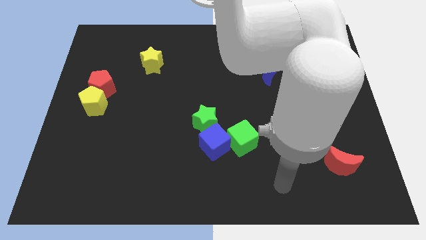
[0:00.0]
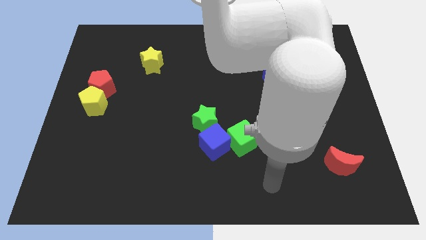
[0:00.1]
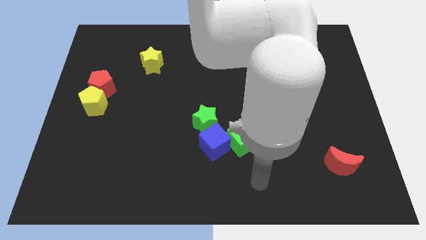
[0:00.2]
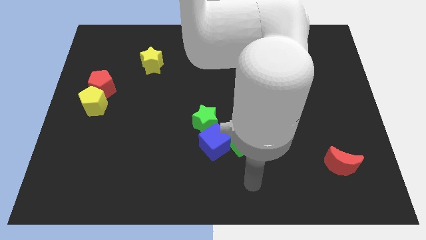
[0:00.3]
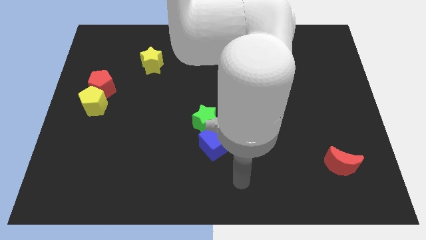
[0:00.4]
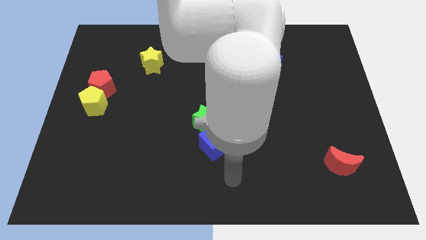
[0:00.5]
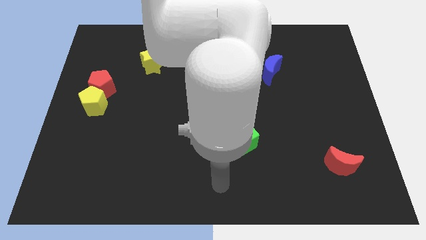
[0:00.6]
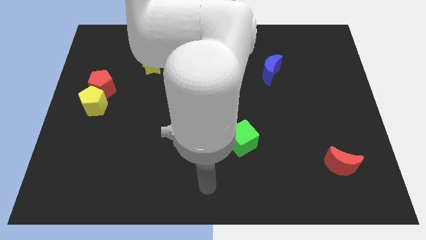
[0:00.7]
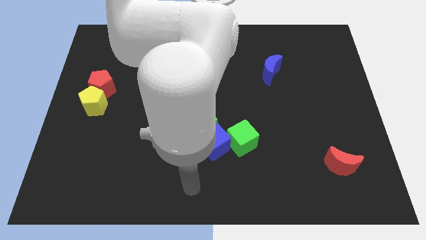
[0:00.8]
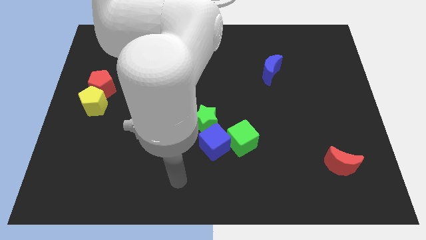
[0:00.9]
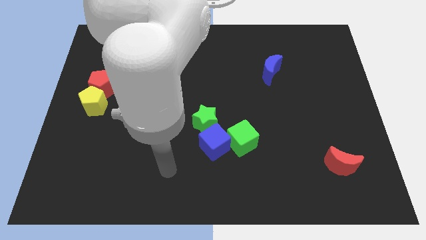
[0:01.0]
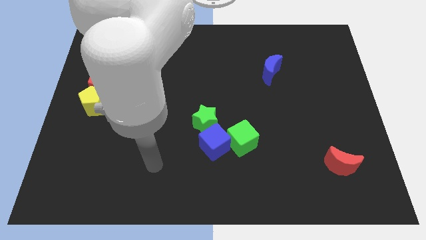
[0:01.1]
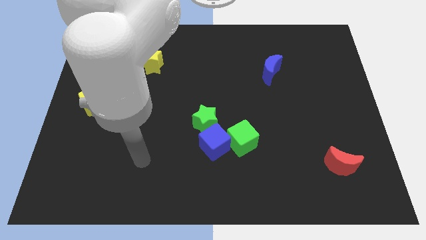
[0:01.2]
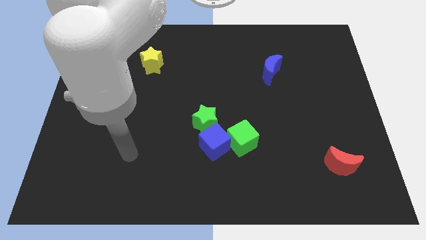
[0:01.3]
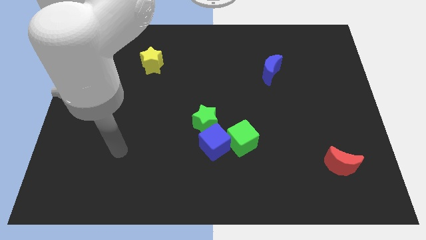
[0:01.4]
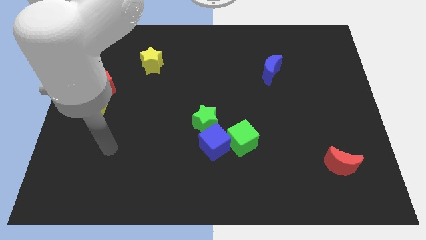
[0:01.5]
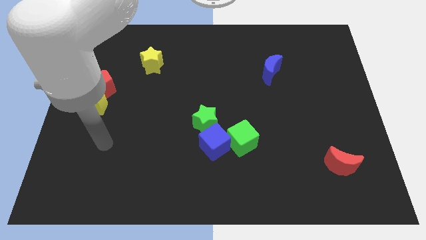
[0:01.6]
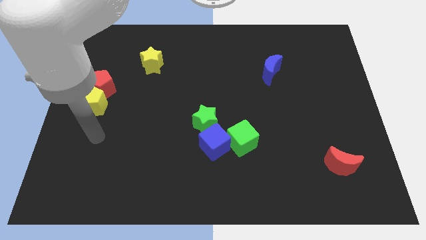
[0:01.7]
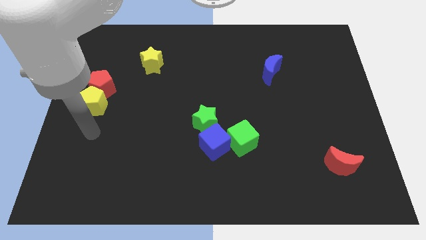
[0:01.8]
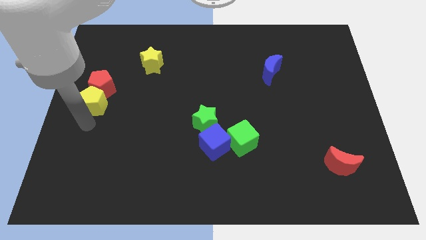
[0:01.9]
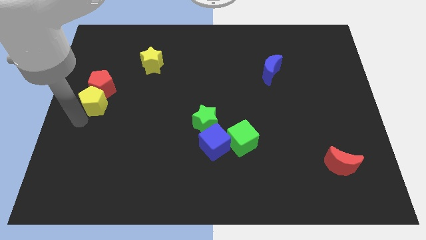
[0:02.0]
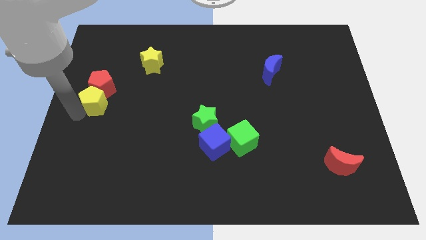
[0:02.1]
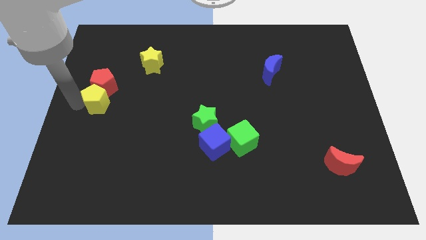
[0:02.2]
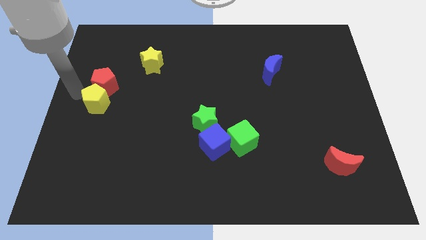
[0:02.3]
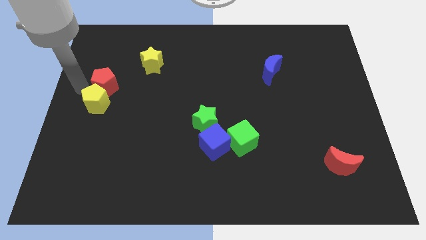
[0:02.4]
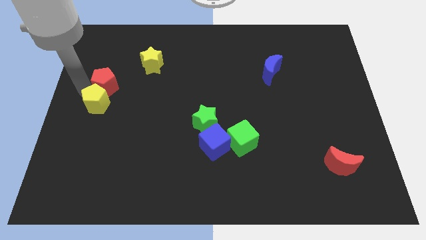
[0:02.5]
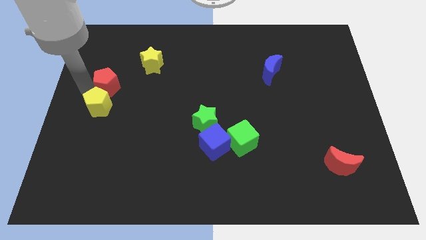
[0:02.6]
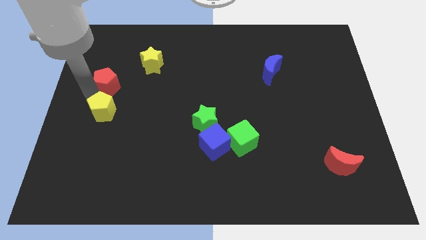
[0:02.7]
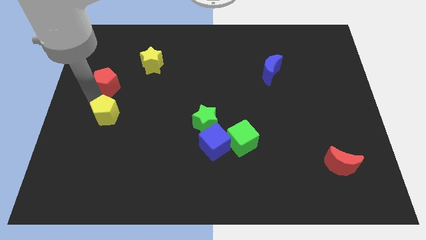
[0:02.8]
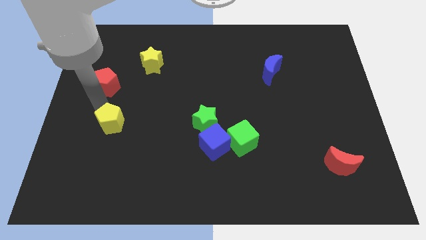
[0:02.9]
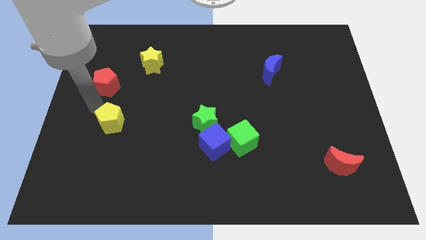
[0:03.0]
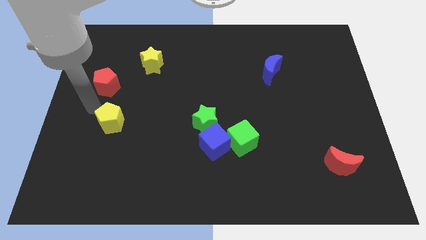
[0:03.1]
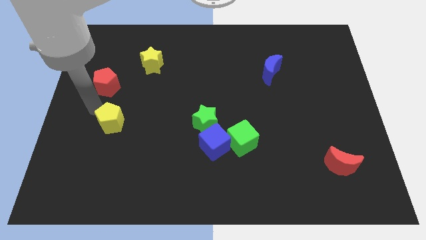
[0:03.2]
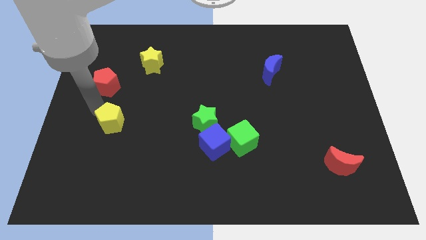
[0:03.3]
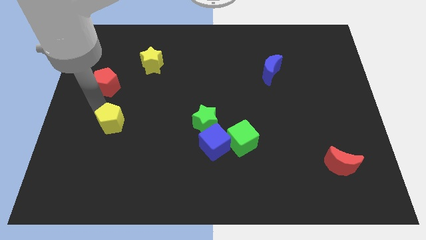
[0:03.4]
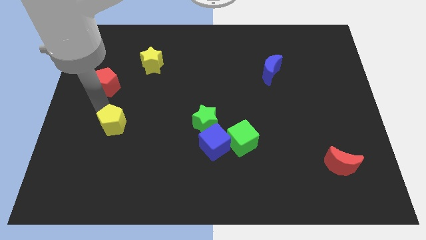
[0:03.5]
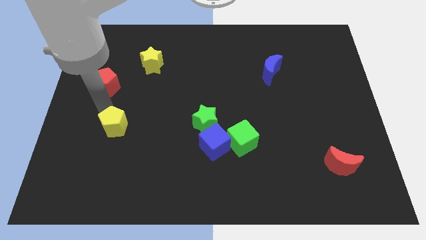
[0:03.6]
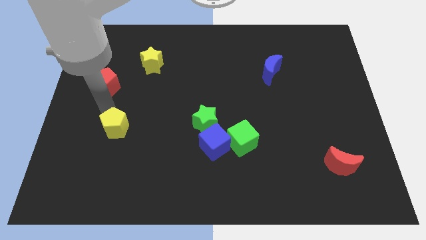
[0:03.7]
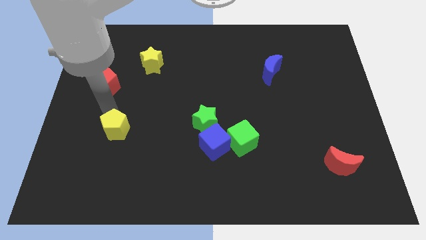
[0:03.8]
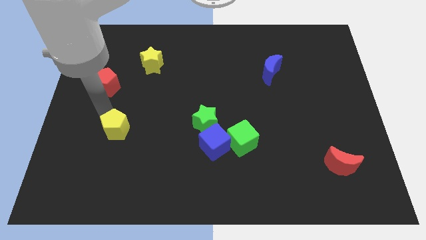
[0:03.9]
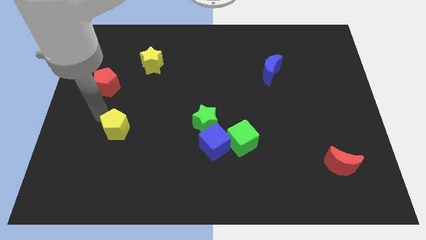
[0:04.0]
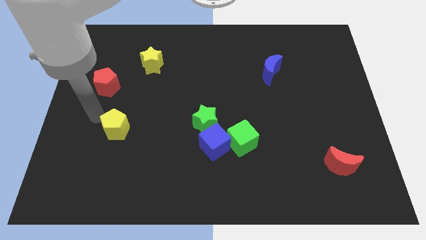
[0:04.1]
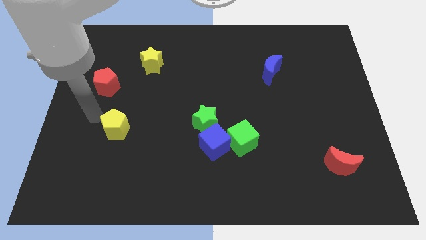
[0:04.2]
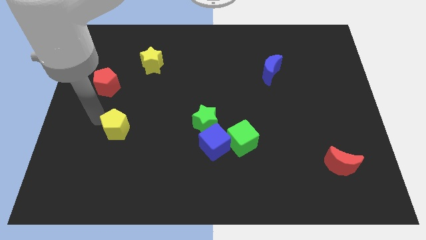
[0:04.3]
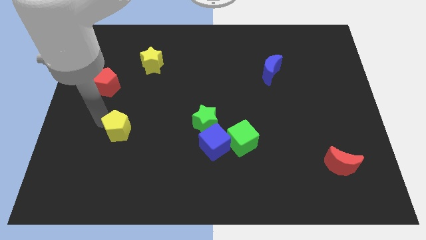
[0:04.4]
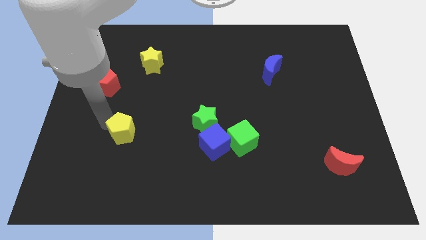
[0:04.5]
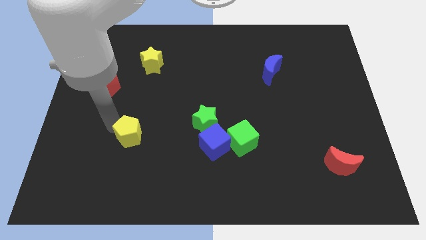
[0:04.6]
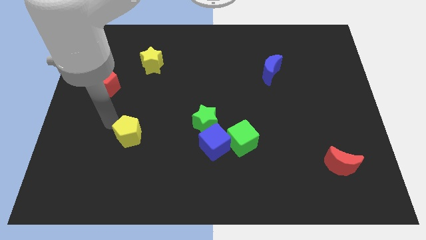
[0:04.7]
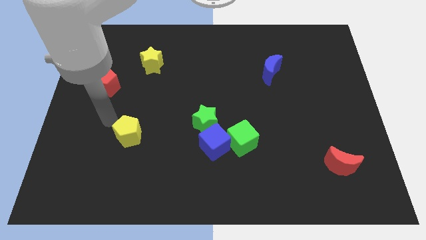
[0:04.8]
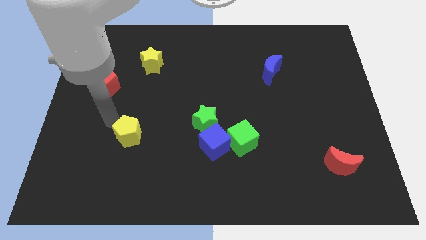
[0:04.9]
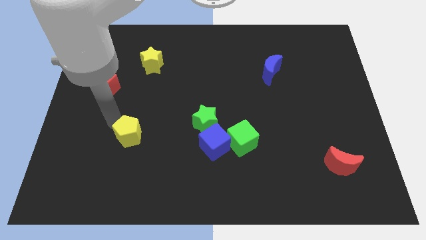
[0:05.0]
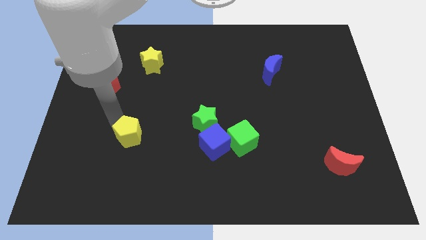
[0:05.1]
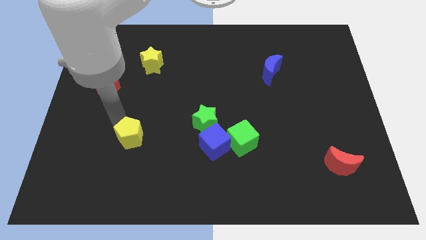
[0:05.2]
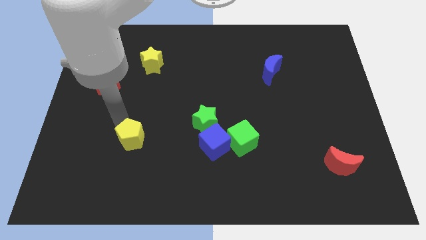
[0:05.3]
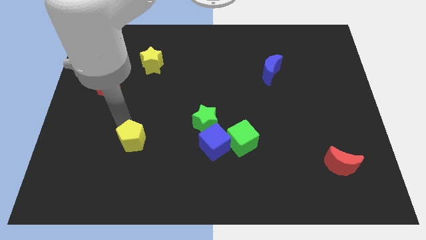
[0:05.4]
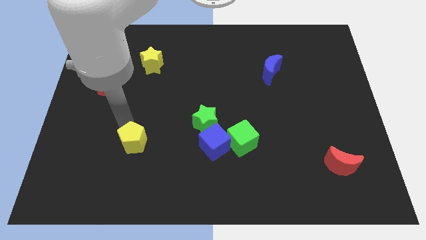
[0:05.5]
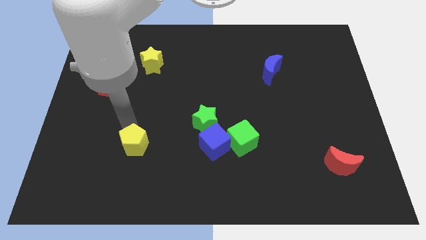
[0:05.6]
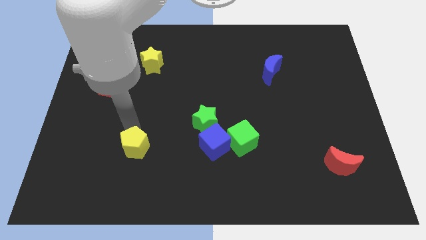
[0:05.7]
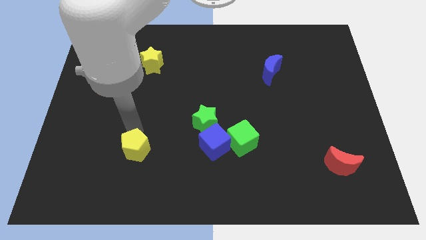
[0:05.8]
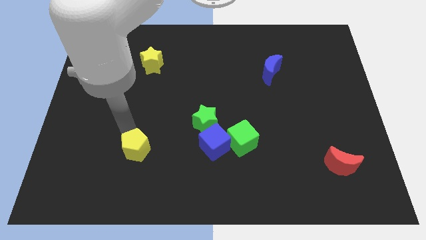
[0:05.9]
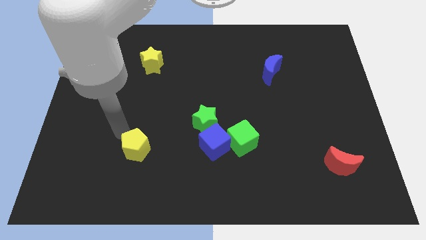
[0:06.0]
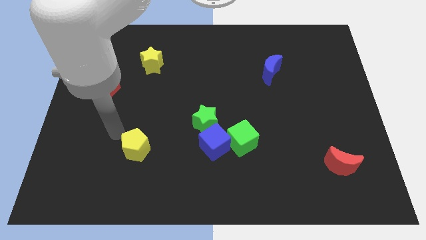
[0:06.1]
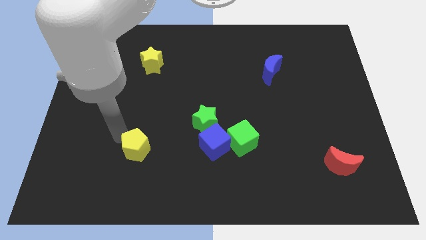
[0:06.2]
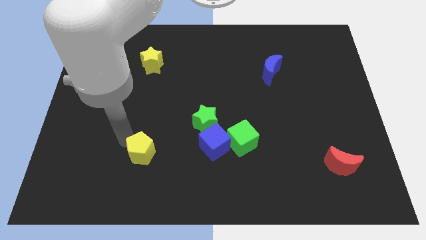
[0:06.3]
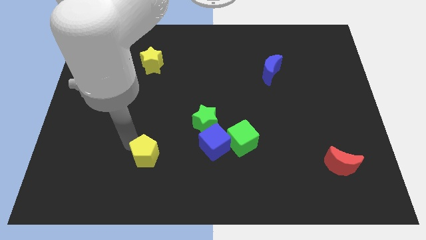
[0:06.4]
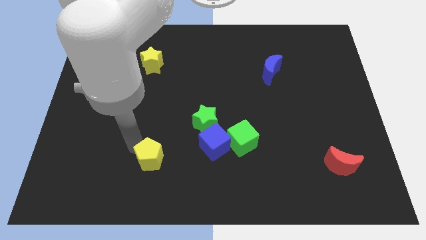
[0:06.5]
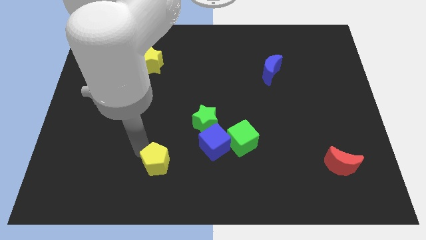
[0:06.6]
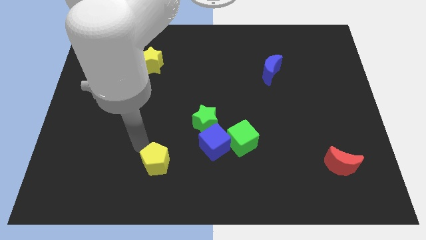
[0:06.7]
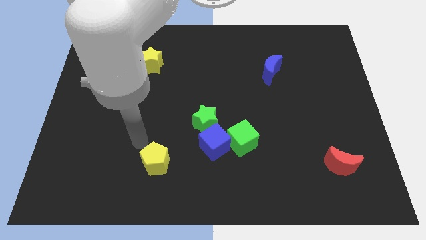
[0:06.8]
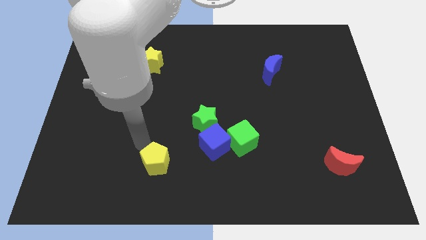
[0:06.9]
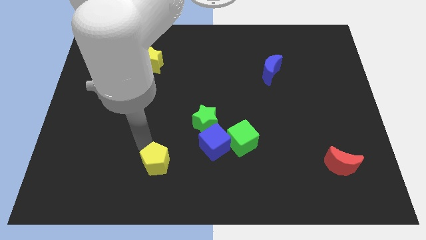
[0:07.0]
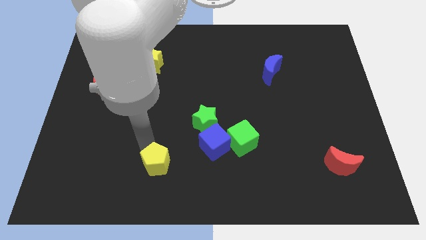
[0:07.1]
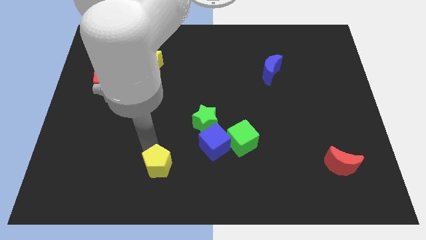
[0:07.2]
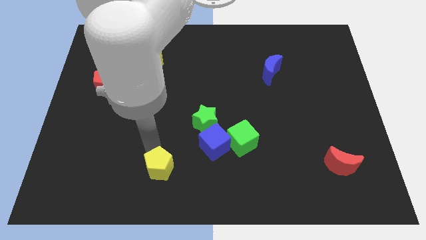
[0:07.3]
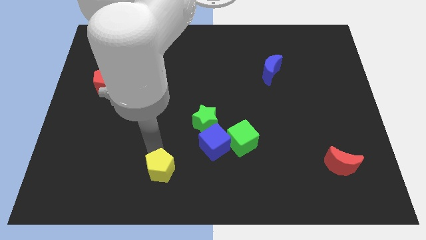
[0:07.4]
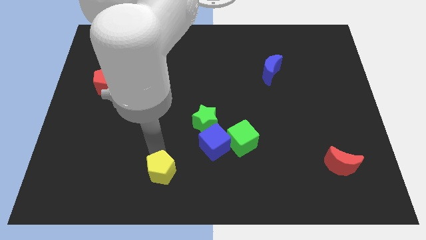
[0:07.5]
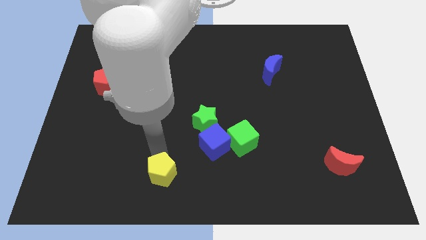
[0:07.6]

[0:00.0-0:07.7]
move the yellow pentagon to the bottom
